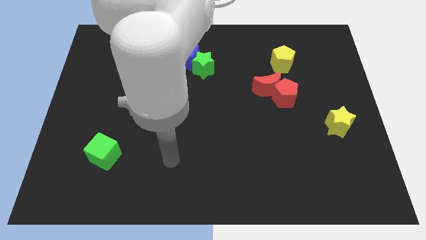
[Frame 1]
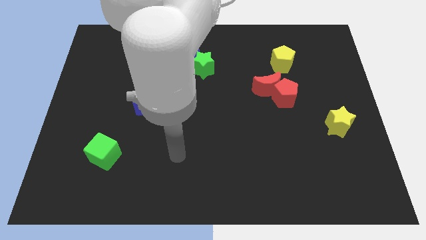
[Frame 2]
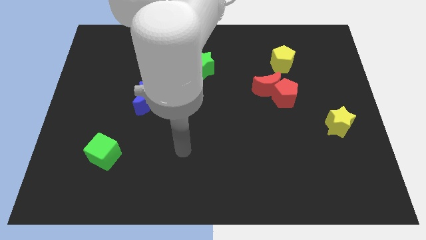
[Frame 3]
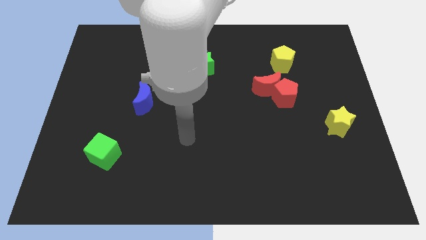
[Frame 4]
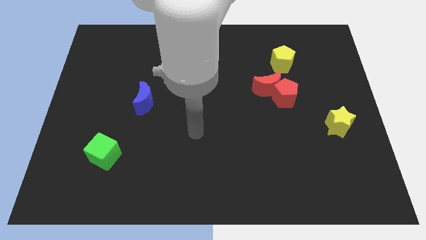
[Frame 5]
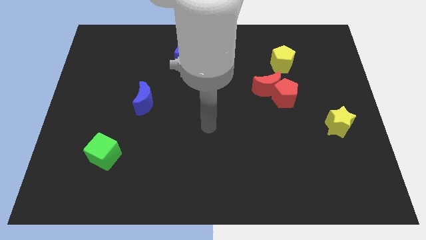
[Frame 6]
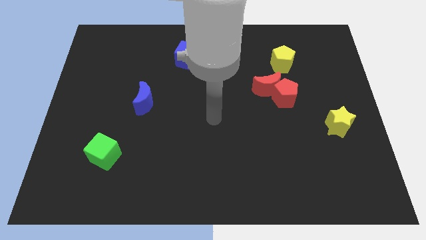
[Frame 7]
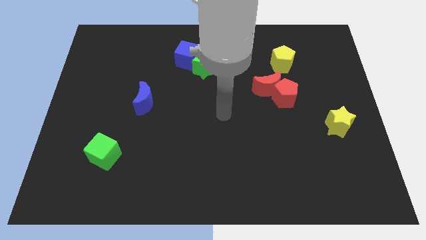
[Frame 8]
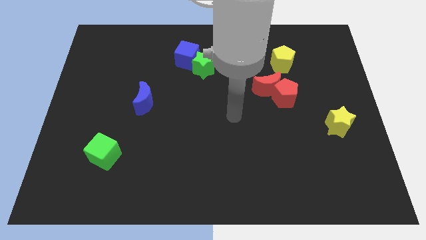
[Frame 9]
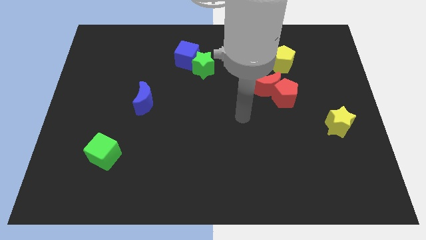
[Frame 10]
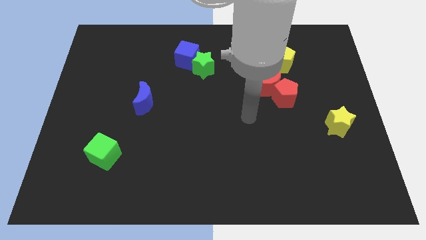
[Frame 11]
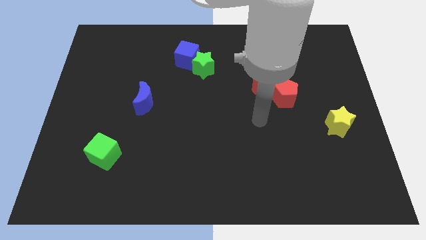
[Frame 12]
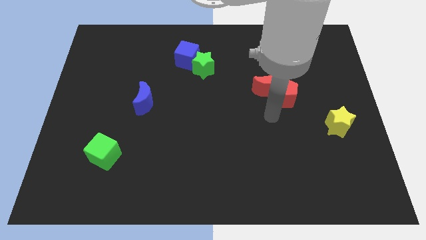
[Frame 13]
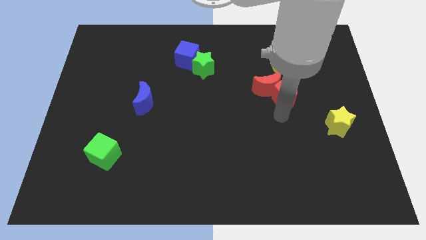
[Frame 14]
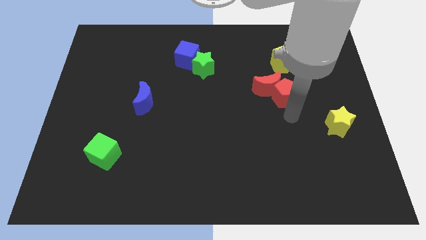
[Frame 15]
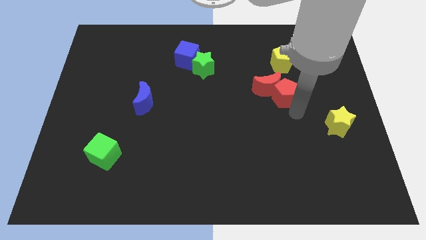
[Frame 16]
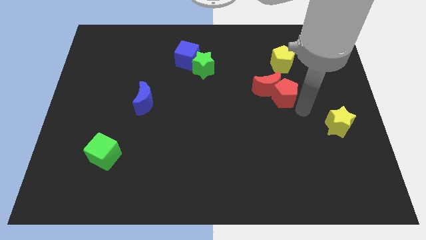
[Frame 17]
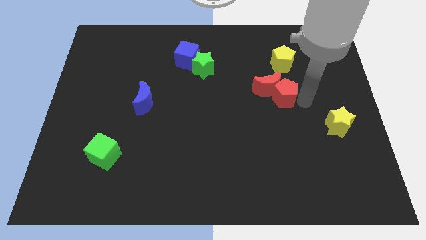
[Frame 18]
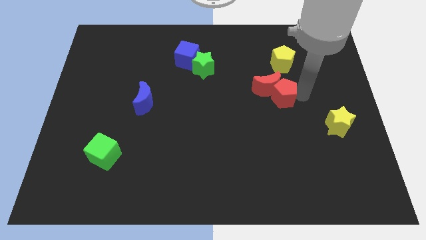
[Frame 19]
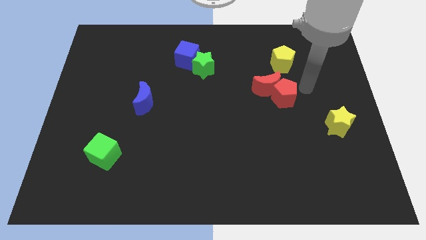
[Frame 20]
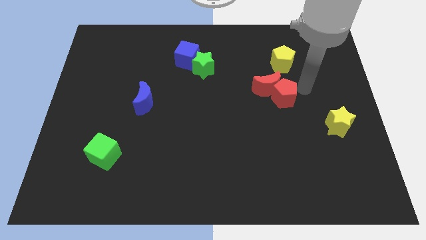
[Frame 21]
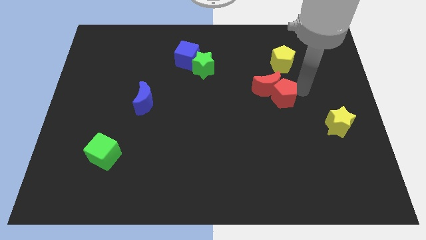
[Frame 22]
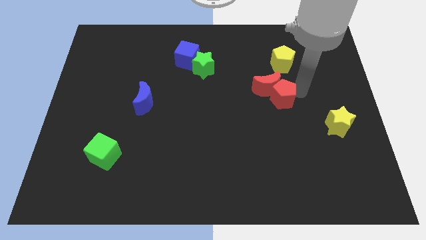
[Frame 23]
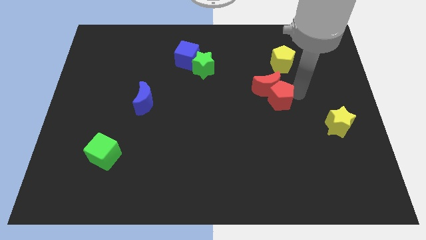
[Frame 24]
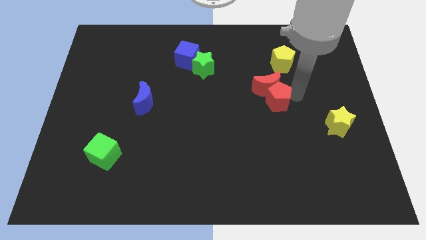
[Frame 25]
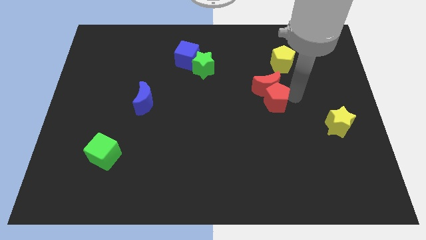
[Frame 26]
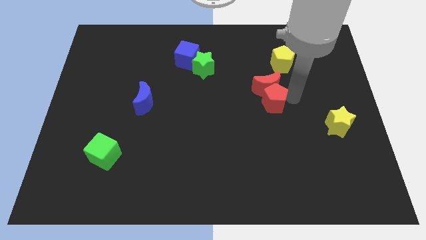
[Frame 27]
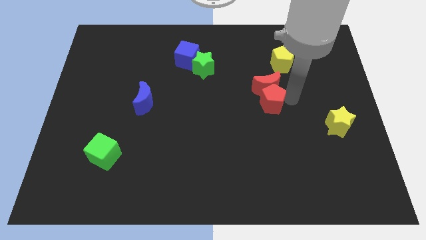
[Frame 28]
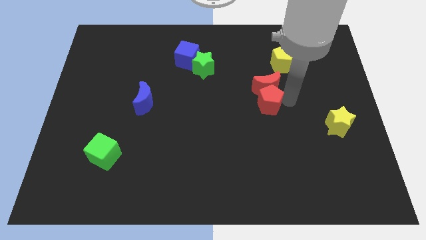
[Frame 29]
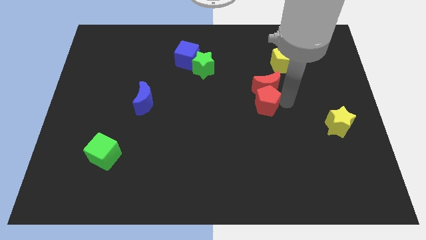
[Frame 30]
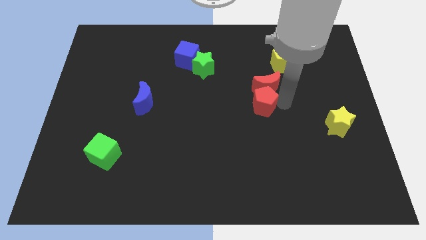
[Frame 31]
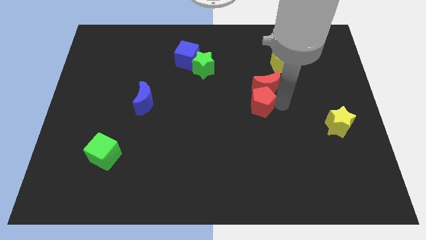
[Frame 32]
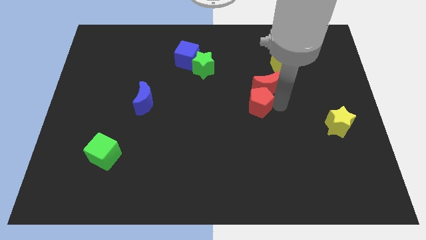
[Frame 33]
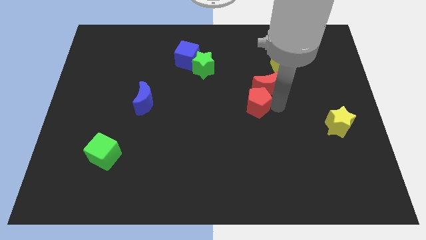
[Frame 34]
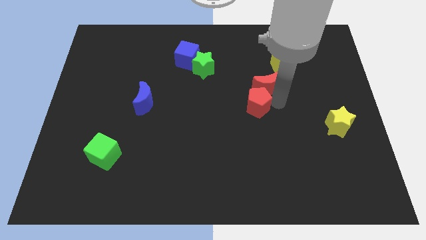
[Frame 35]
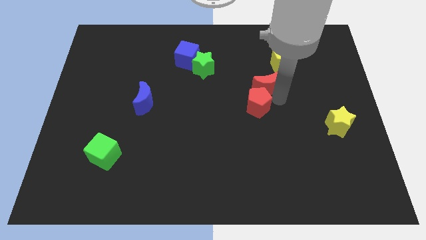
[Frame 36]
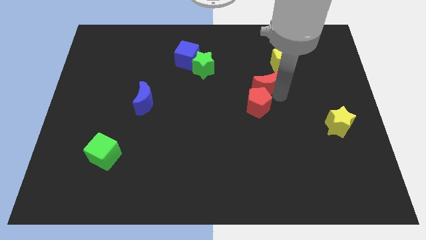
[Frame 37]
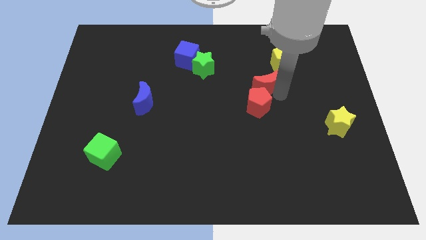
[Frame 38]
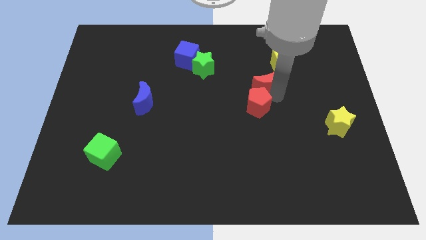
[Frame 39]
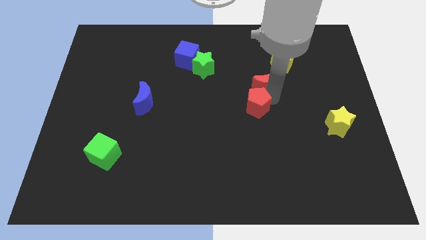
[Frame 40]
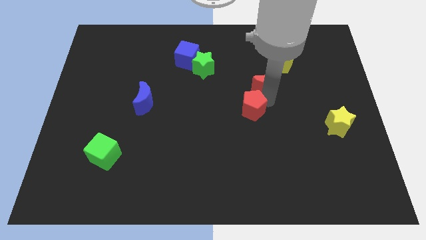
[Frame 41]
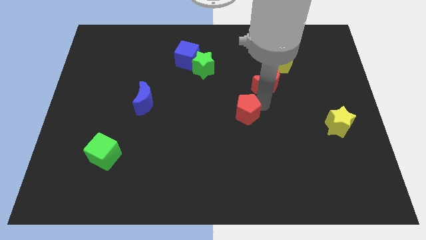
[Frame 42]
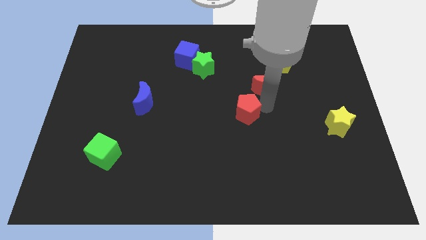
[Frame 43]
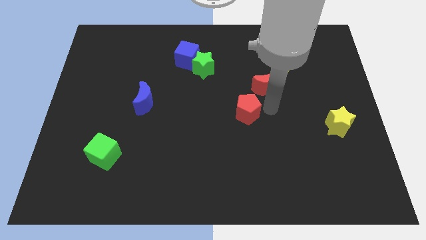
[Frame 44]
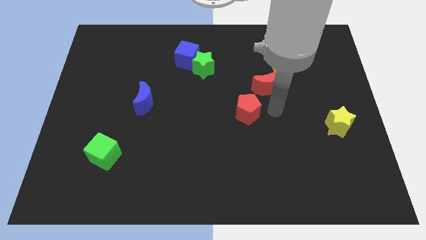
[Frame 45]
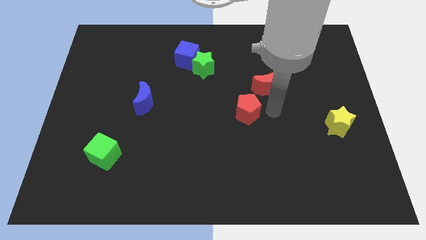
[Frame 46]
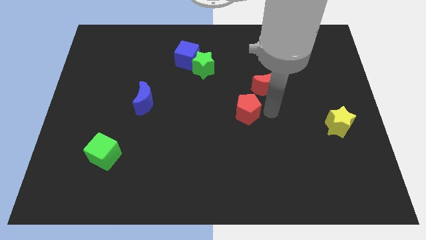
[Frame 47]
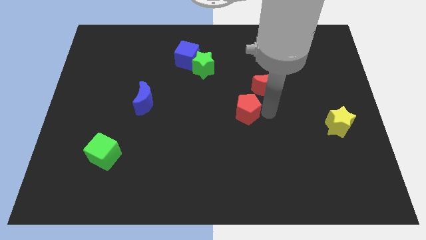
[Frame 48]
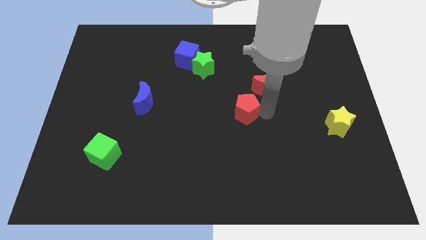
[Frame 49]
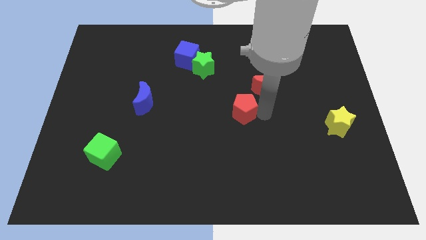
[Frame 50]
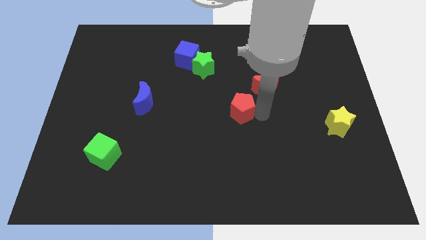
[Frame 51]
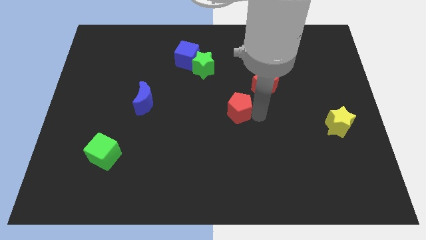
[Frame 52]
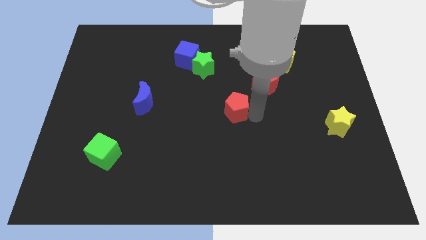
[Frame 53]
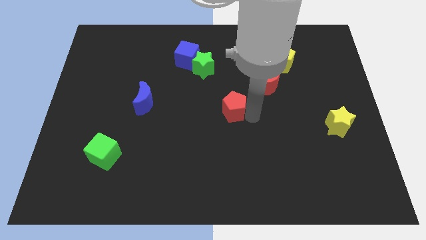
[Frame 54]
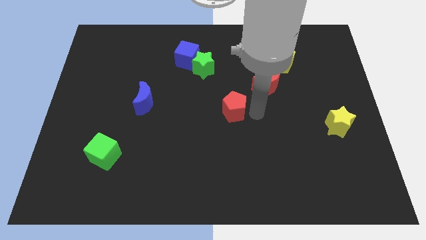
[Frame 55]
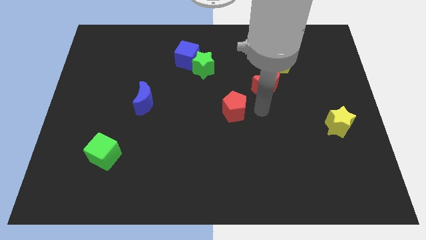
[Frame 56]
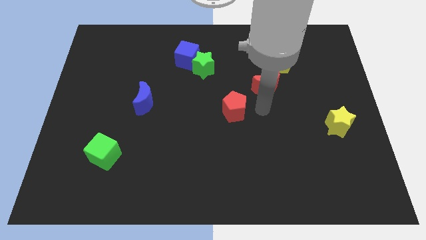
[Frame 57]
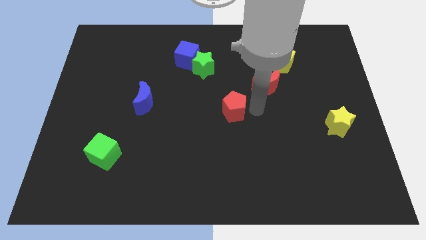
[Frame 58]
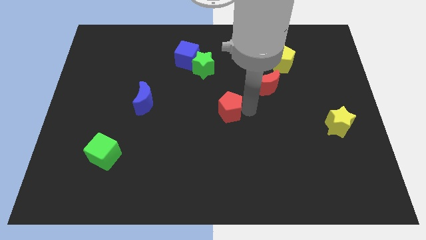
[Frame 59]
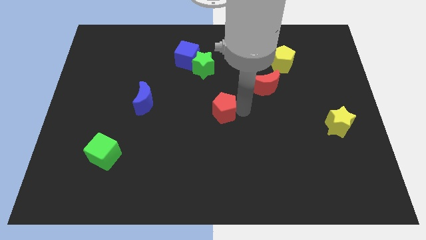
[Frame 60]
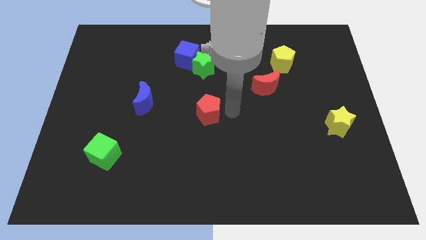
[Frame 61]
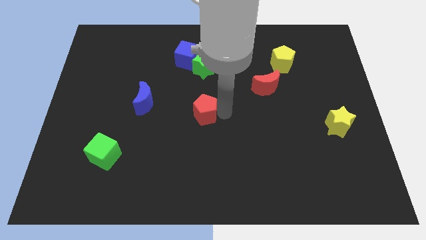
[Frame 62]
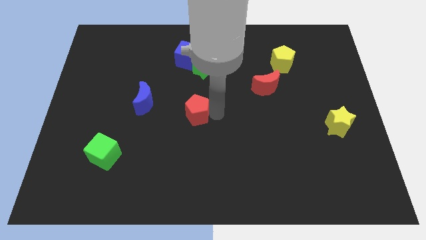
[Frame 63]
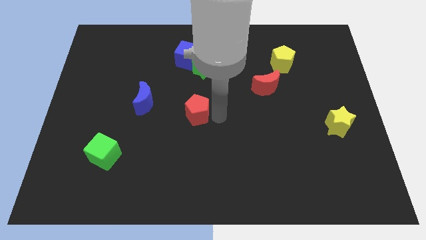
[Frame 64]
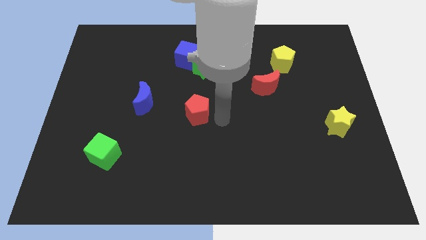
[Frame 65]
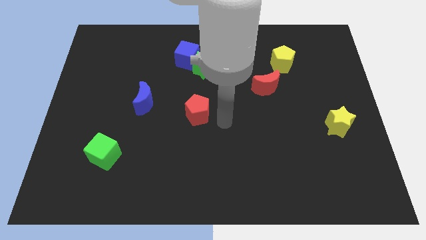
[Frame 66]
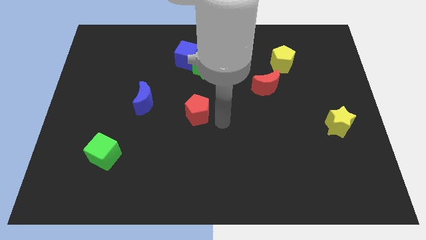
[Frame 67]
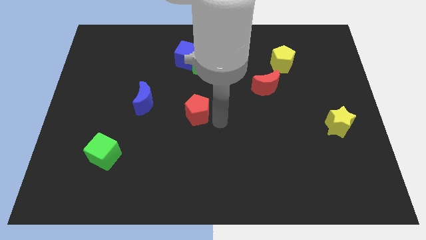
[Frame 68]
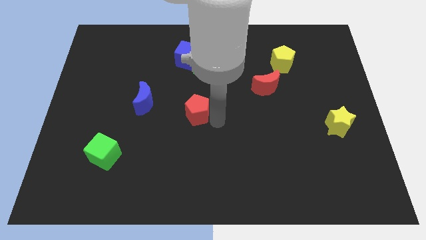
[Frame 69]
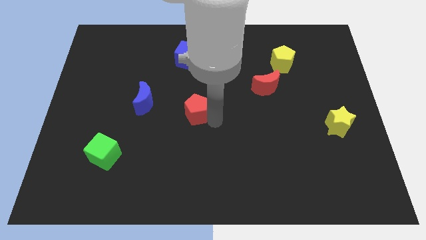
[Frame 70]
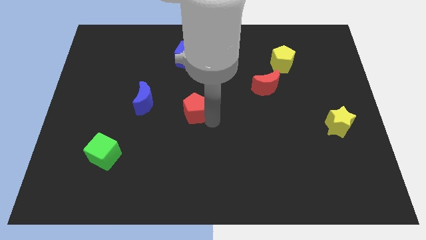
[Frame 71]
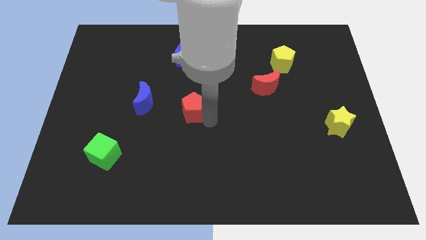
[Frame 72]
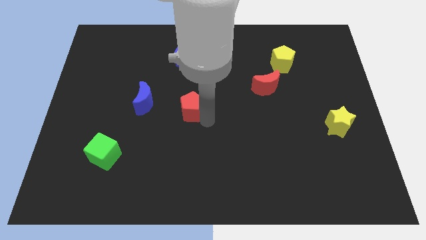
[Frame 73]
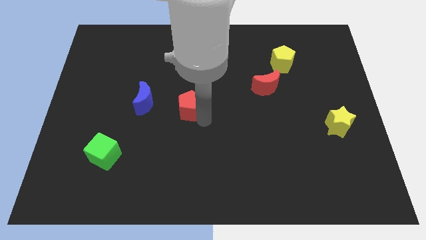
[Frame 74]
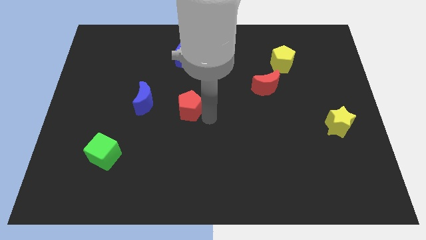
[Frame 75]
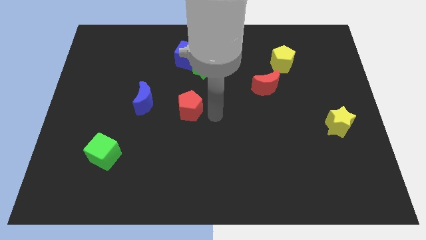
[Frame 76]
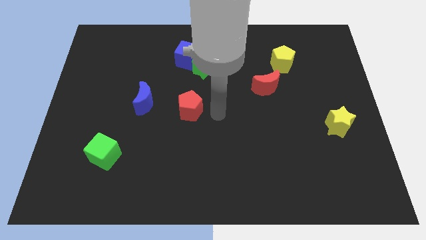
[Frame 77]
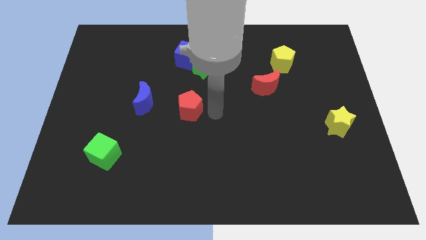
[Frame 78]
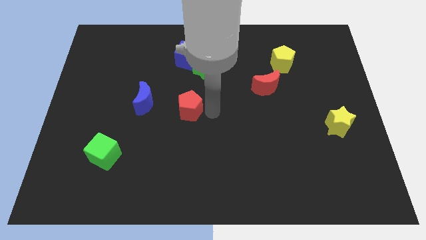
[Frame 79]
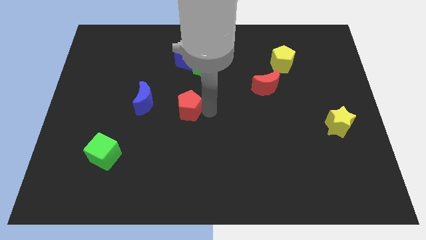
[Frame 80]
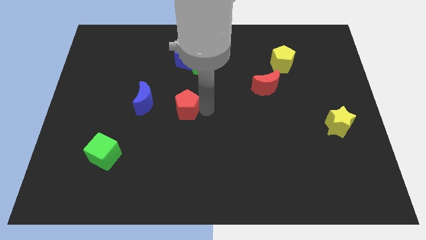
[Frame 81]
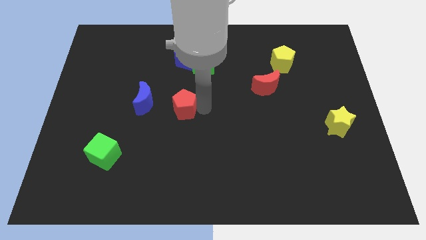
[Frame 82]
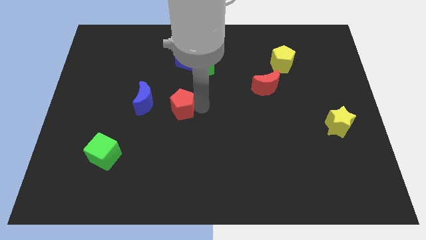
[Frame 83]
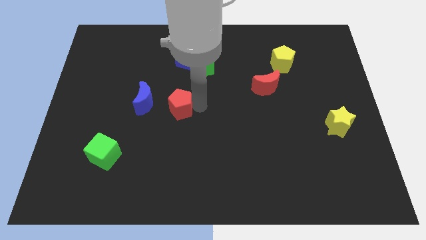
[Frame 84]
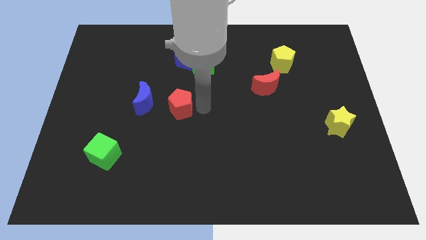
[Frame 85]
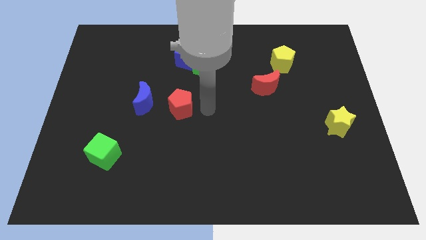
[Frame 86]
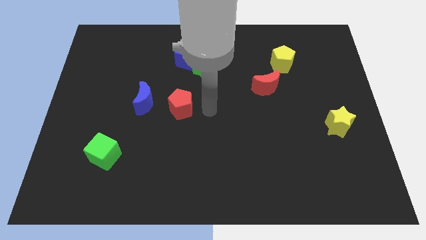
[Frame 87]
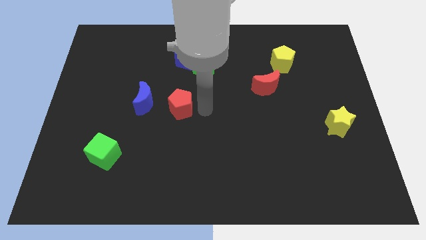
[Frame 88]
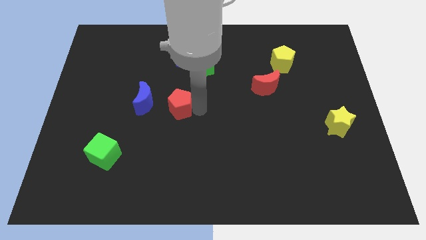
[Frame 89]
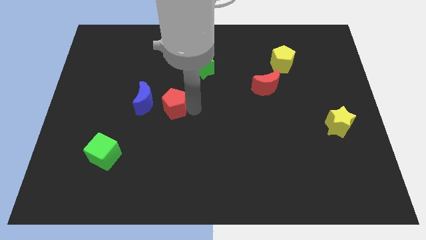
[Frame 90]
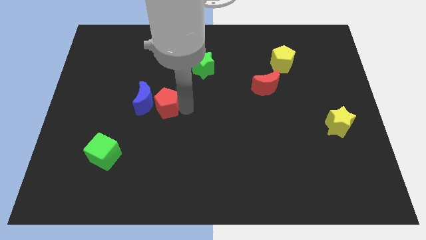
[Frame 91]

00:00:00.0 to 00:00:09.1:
push the red pentagon close to the blue moon
